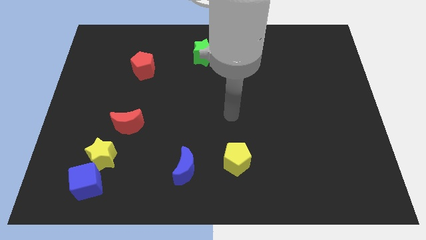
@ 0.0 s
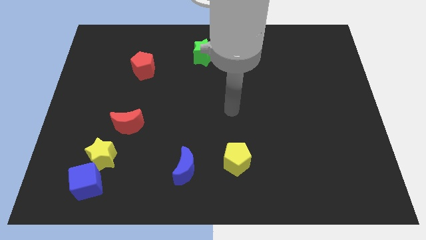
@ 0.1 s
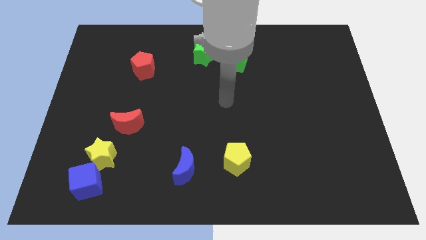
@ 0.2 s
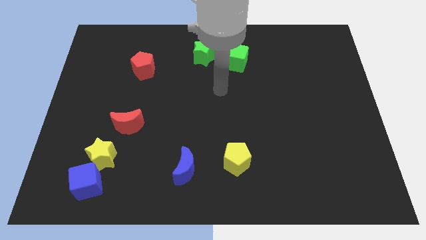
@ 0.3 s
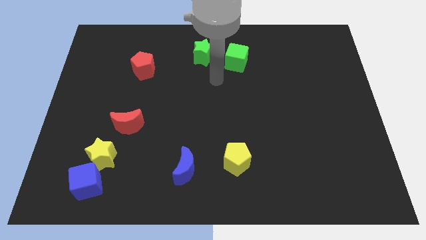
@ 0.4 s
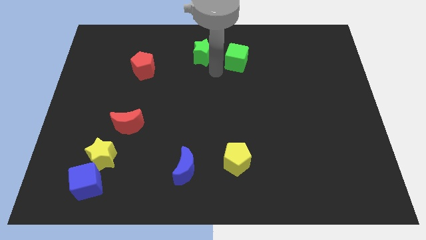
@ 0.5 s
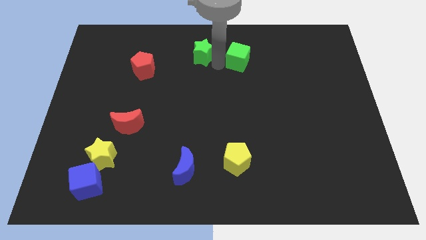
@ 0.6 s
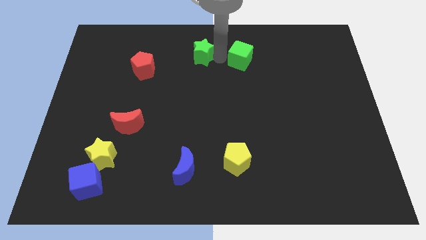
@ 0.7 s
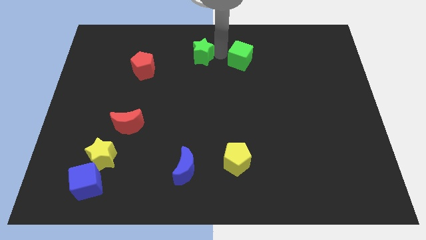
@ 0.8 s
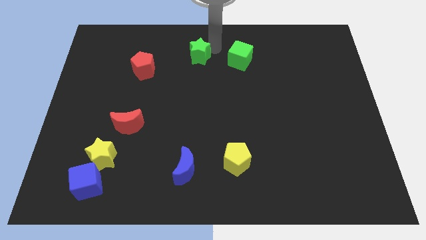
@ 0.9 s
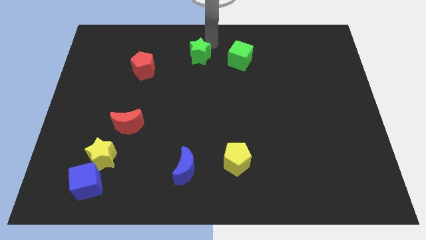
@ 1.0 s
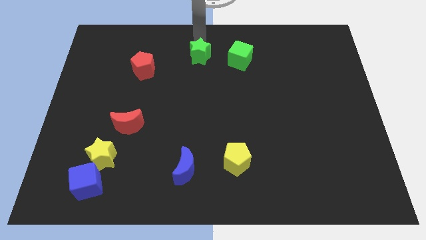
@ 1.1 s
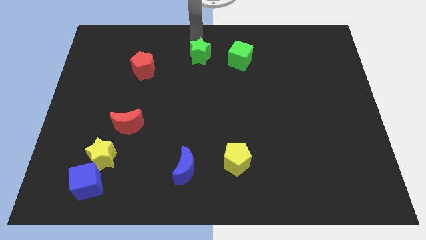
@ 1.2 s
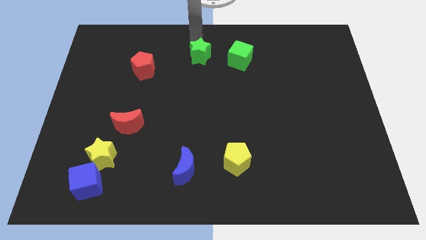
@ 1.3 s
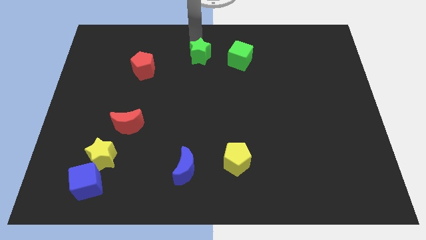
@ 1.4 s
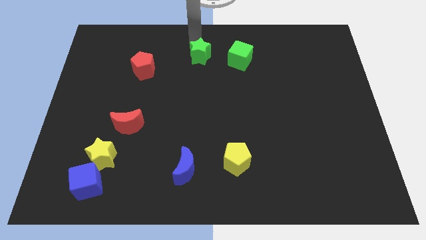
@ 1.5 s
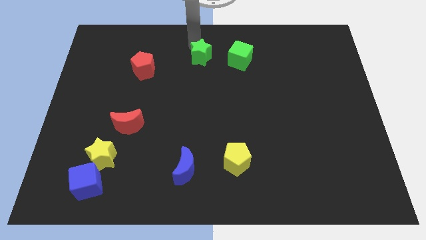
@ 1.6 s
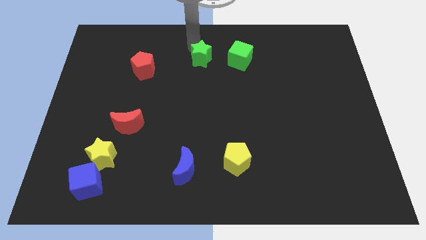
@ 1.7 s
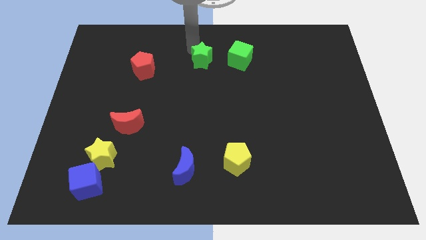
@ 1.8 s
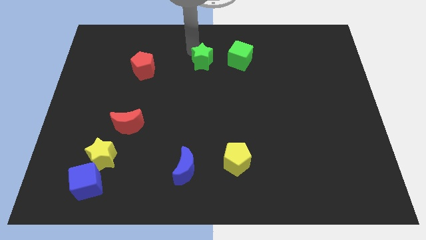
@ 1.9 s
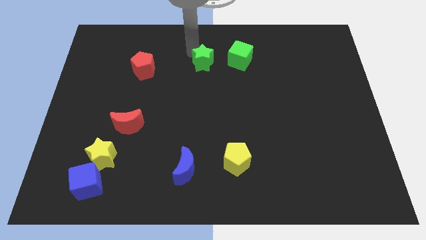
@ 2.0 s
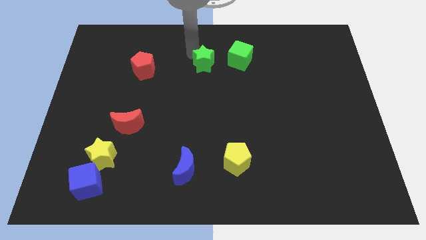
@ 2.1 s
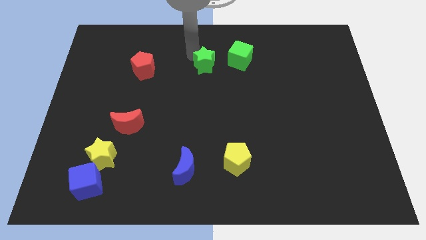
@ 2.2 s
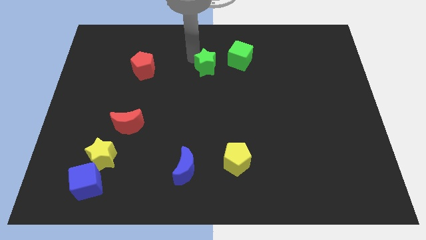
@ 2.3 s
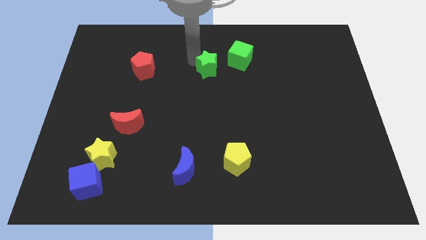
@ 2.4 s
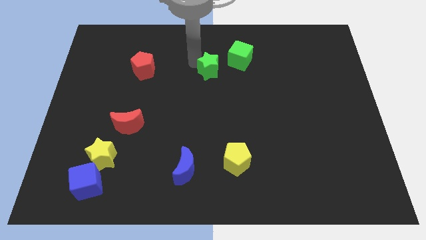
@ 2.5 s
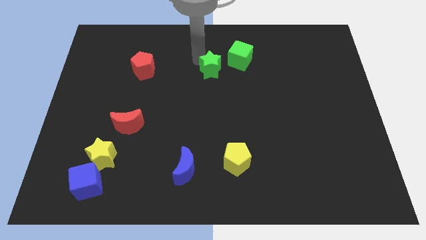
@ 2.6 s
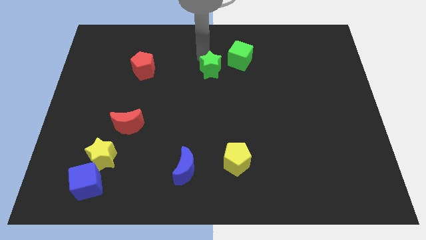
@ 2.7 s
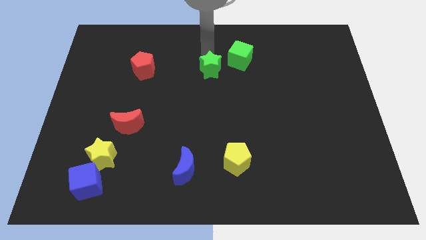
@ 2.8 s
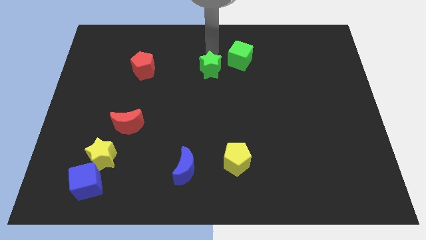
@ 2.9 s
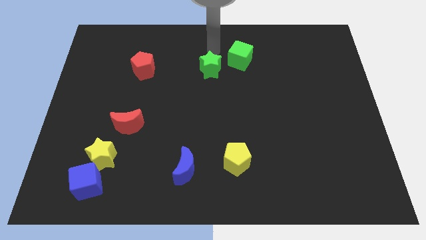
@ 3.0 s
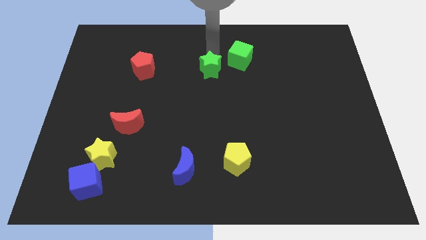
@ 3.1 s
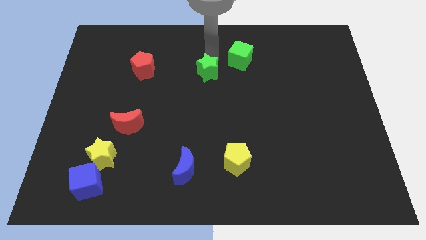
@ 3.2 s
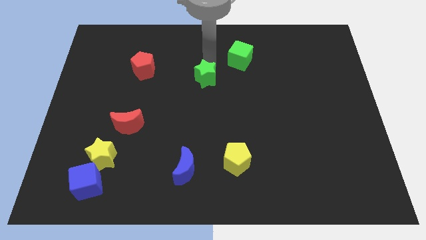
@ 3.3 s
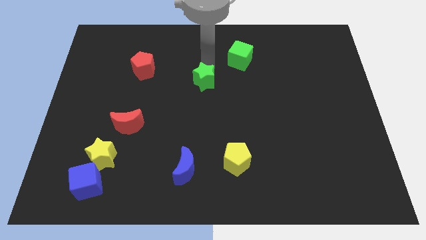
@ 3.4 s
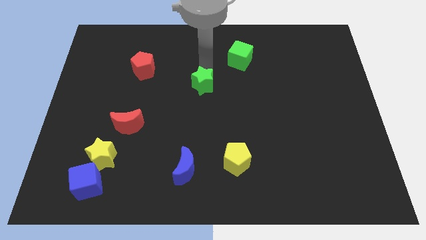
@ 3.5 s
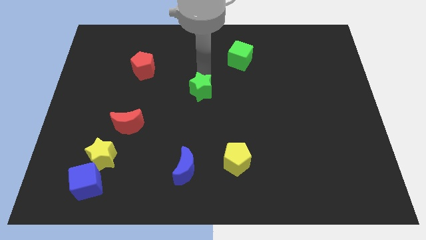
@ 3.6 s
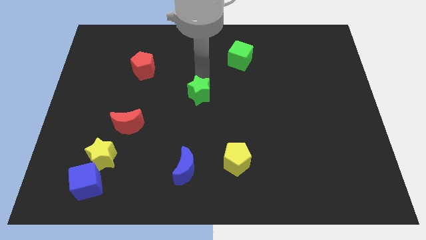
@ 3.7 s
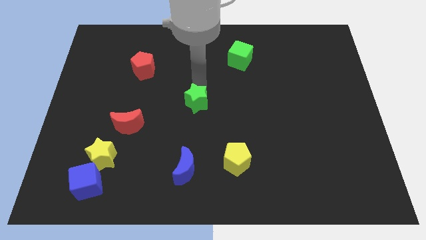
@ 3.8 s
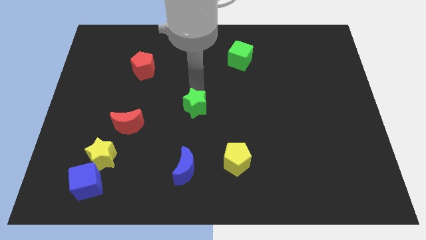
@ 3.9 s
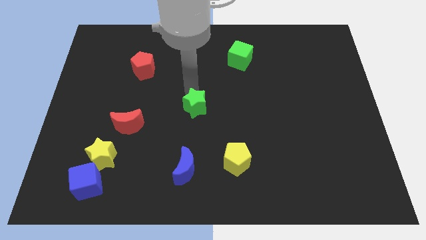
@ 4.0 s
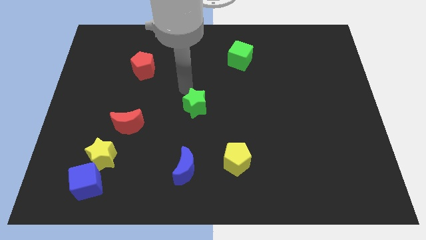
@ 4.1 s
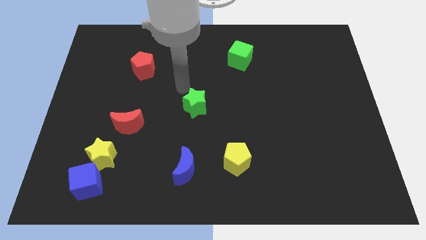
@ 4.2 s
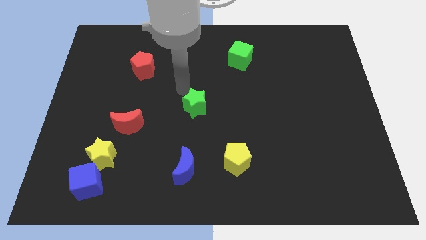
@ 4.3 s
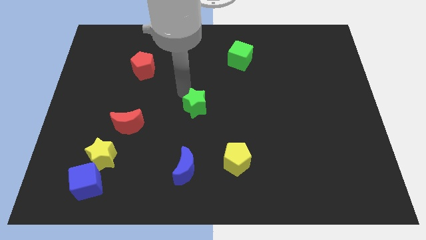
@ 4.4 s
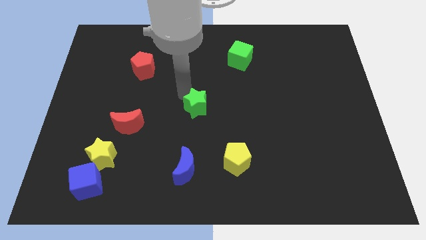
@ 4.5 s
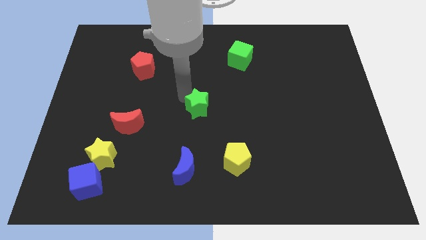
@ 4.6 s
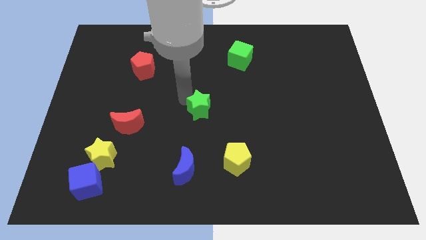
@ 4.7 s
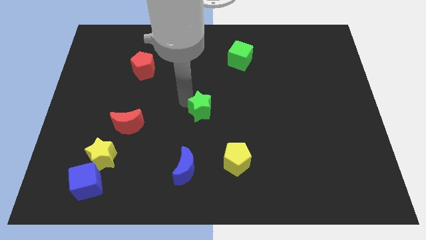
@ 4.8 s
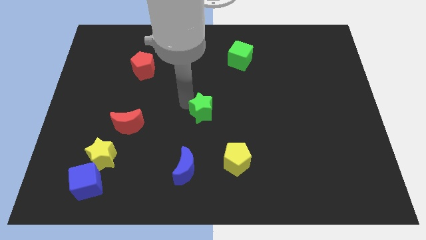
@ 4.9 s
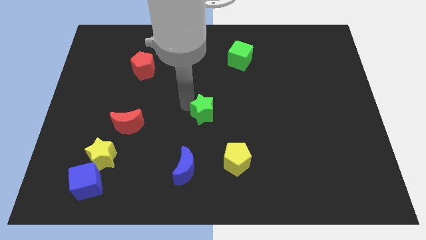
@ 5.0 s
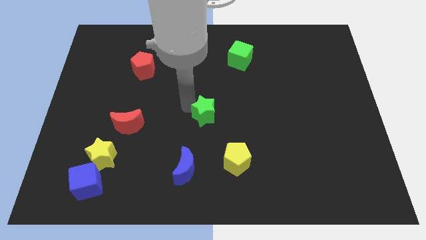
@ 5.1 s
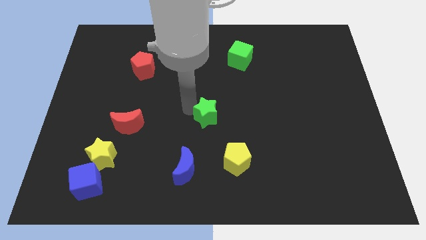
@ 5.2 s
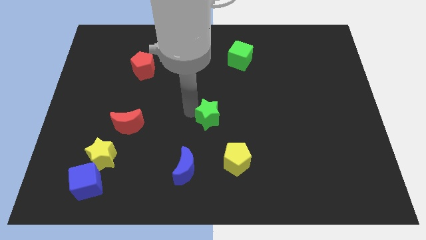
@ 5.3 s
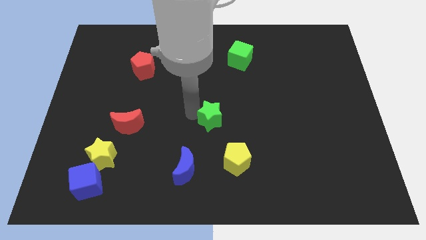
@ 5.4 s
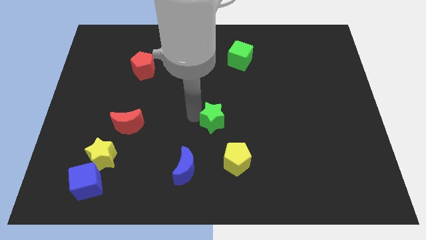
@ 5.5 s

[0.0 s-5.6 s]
put the green star to the top left of the yellow pentagon

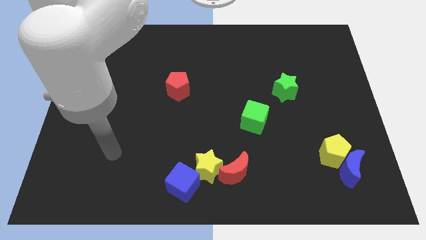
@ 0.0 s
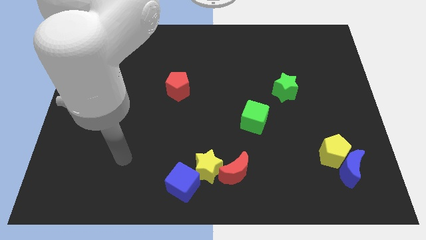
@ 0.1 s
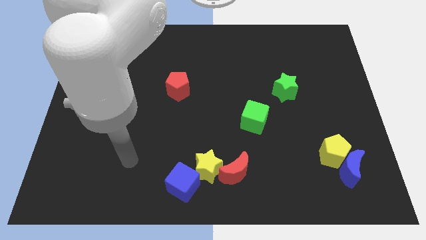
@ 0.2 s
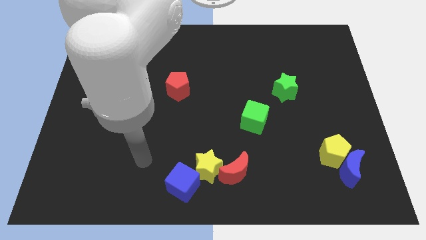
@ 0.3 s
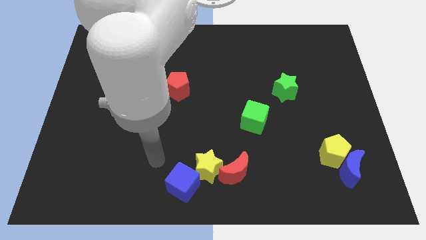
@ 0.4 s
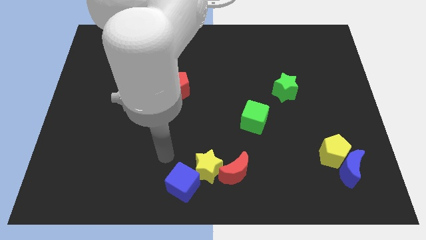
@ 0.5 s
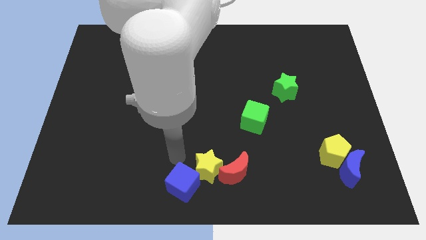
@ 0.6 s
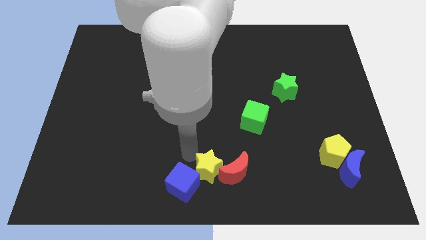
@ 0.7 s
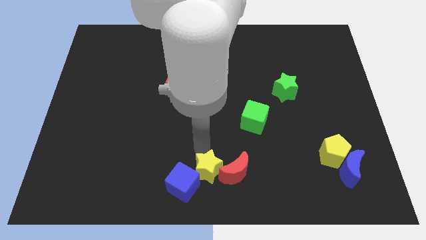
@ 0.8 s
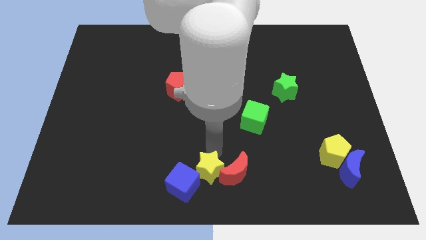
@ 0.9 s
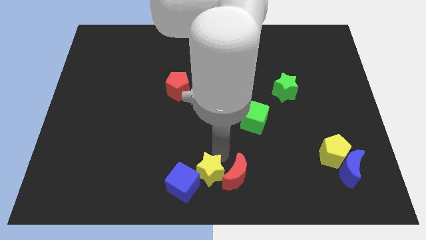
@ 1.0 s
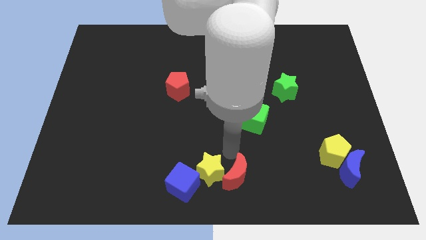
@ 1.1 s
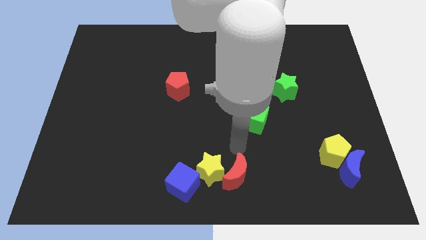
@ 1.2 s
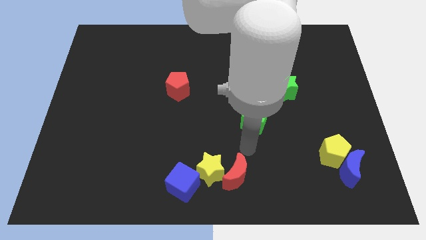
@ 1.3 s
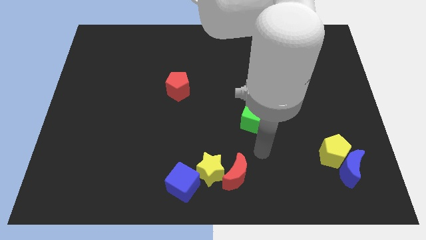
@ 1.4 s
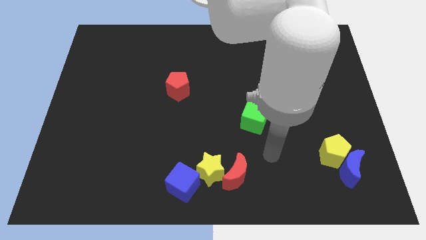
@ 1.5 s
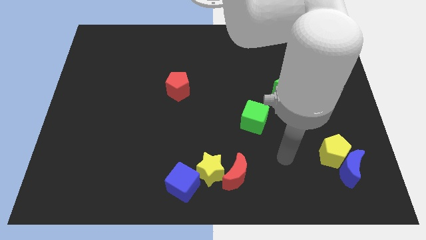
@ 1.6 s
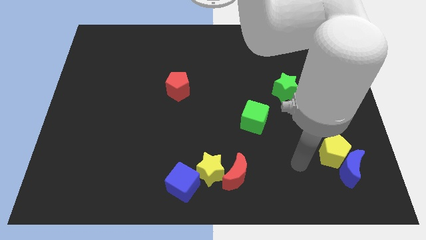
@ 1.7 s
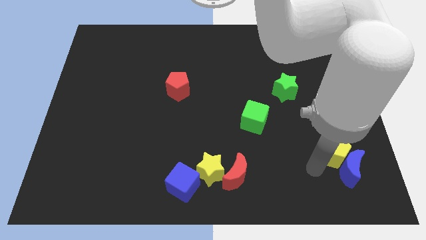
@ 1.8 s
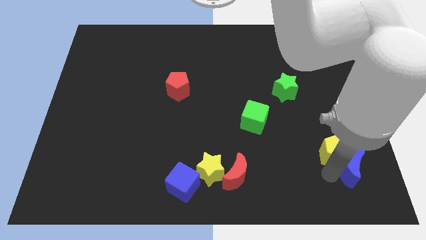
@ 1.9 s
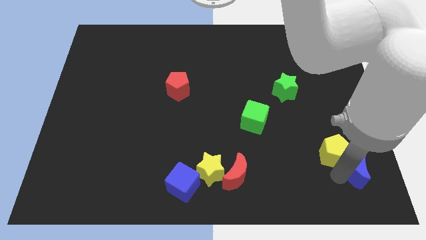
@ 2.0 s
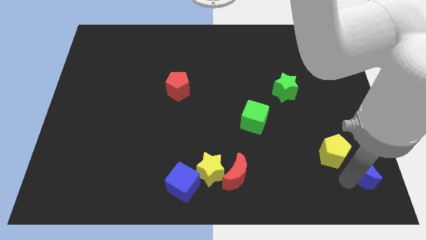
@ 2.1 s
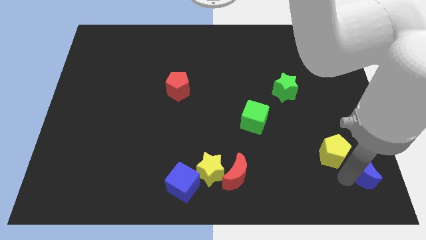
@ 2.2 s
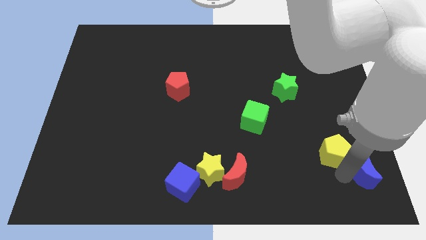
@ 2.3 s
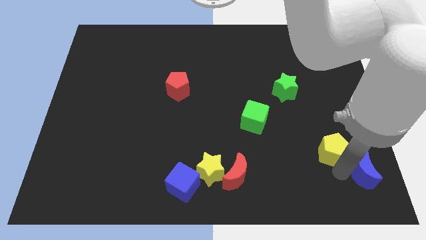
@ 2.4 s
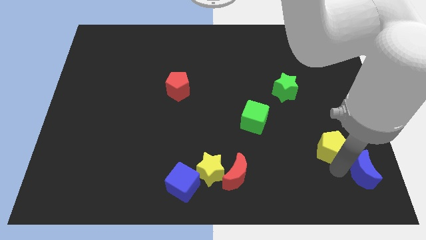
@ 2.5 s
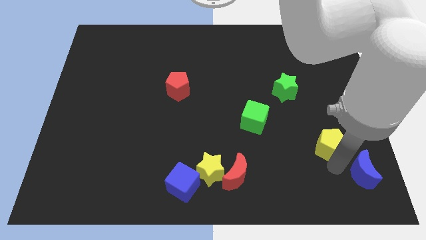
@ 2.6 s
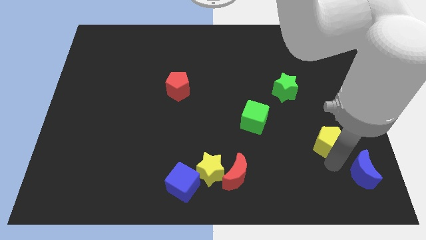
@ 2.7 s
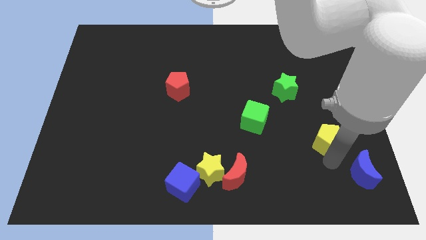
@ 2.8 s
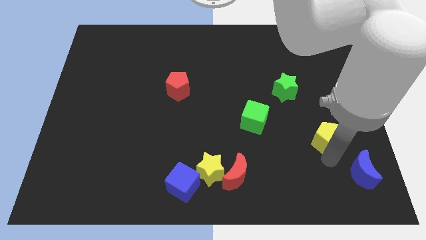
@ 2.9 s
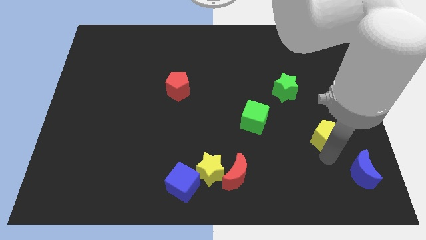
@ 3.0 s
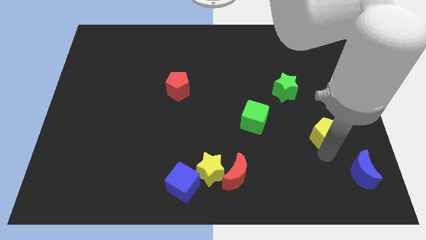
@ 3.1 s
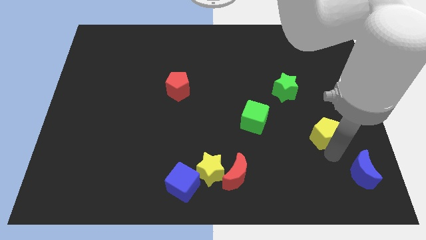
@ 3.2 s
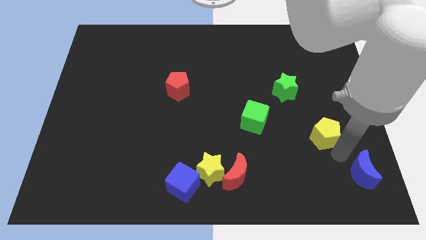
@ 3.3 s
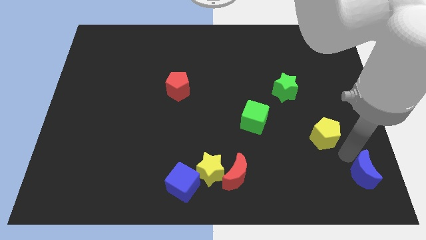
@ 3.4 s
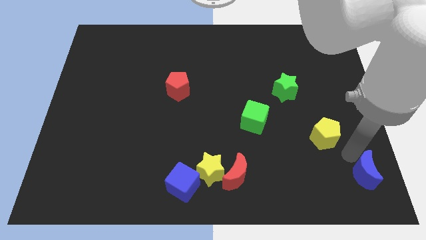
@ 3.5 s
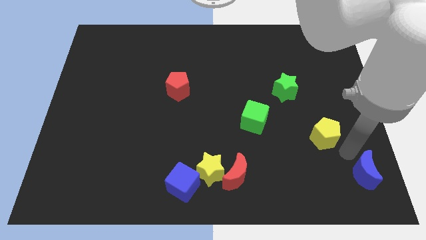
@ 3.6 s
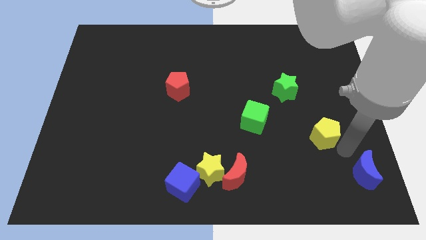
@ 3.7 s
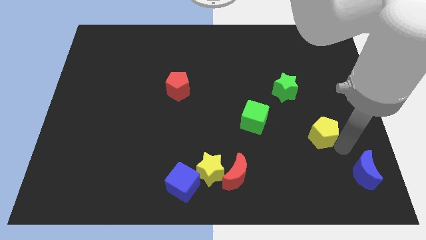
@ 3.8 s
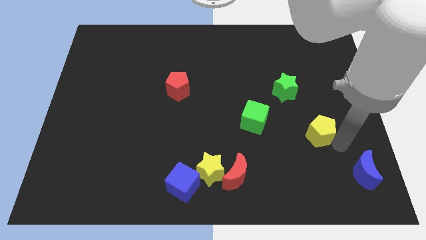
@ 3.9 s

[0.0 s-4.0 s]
slide the yellow pentagon to the right of the green cube
